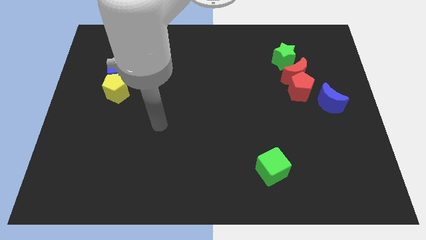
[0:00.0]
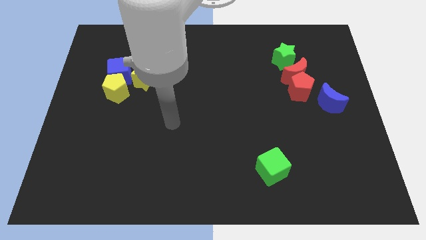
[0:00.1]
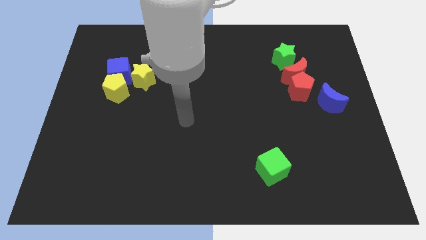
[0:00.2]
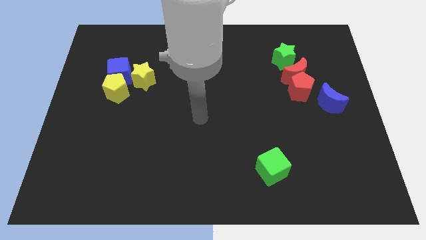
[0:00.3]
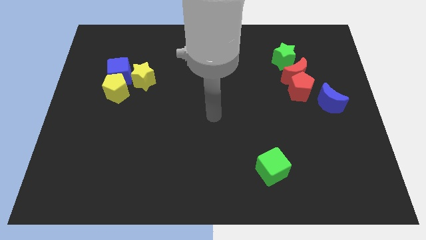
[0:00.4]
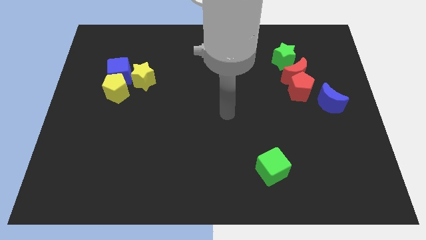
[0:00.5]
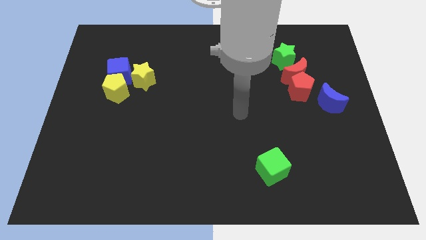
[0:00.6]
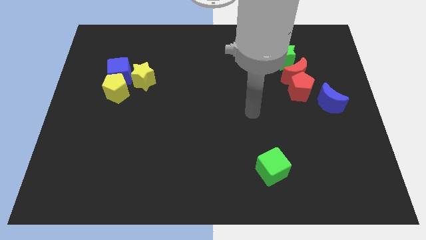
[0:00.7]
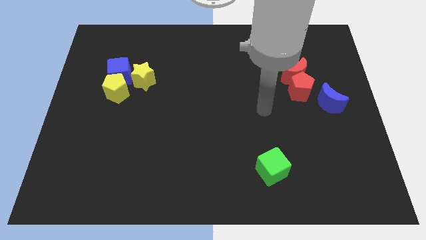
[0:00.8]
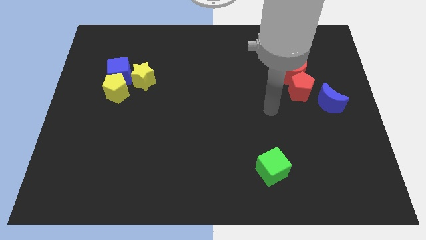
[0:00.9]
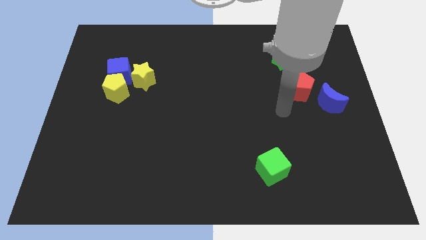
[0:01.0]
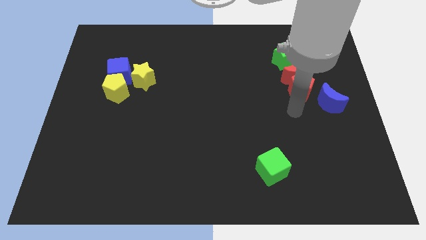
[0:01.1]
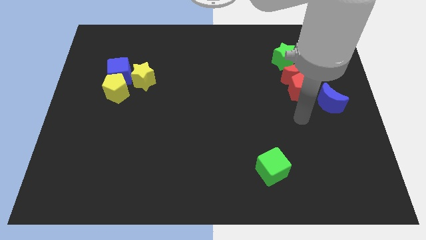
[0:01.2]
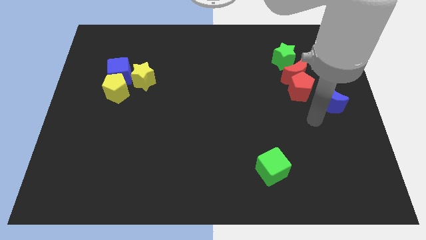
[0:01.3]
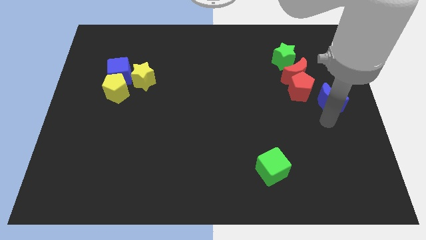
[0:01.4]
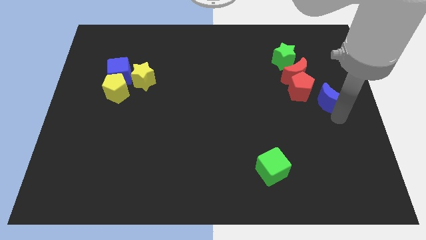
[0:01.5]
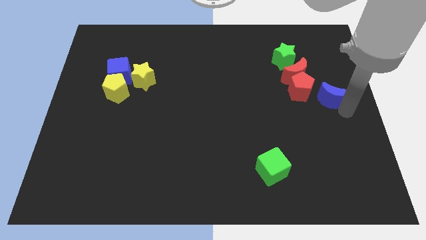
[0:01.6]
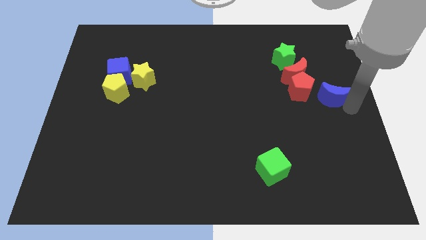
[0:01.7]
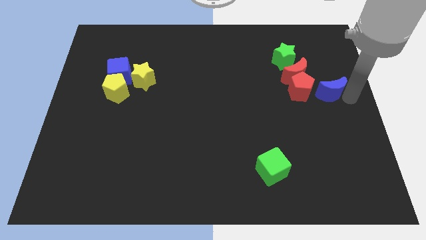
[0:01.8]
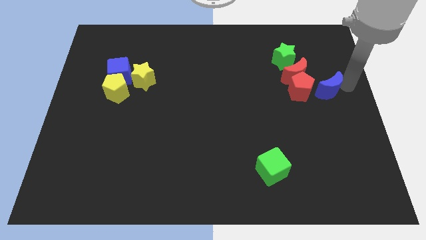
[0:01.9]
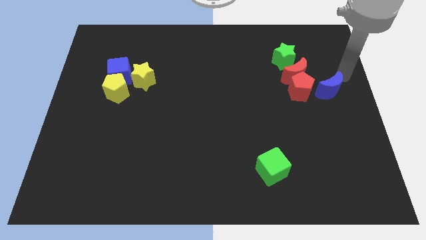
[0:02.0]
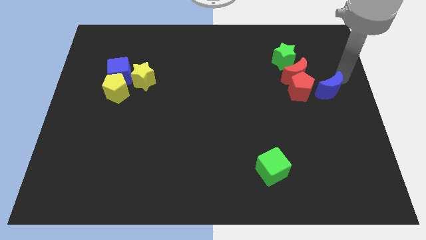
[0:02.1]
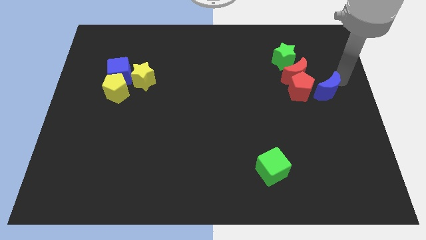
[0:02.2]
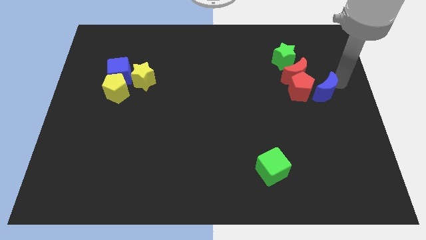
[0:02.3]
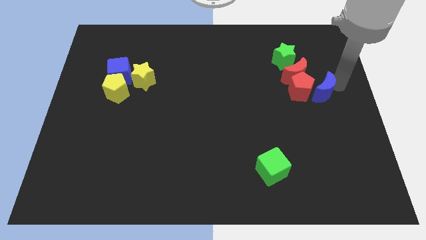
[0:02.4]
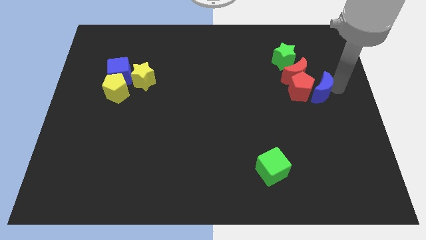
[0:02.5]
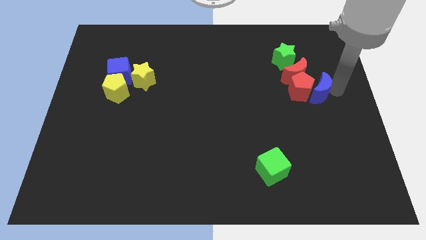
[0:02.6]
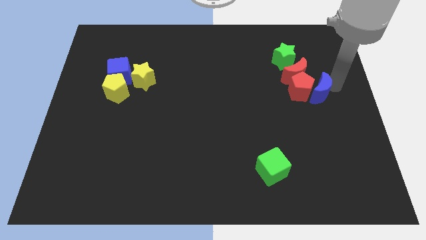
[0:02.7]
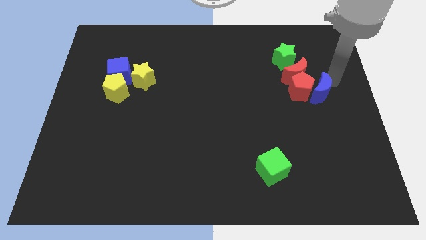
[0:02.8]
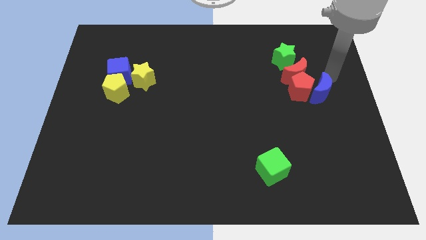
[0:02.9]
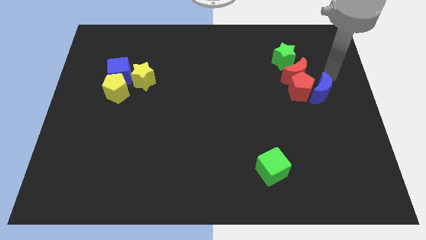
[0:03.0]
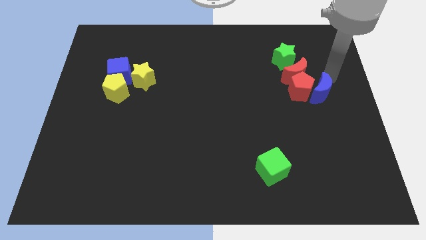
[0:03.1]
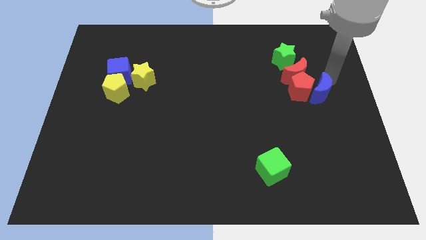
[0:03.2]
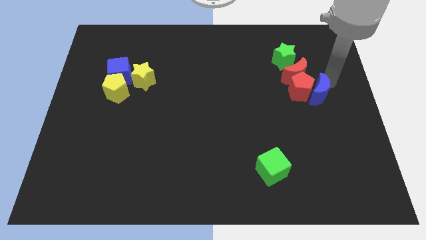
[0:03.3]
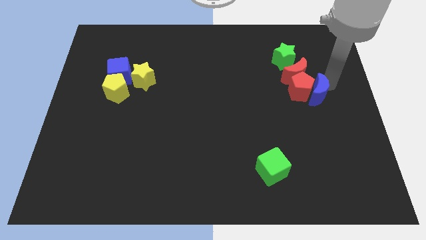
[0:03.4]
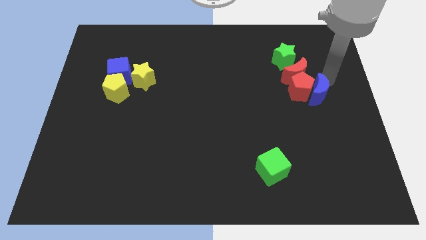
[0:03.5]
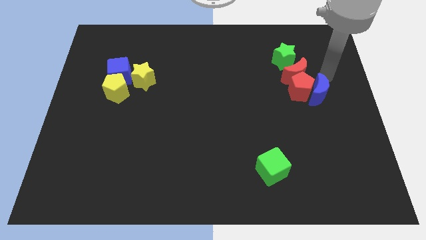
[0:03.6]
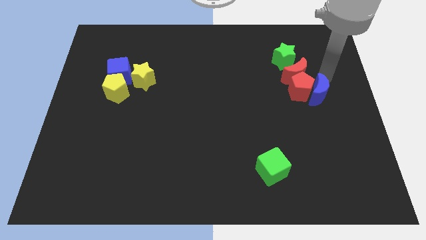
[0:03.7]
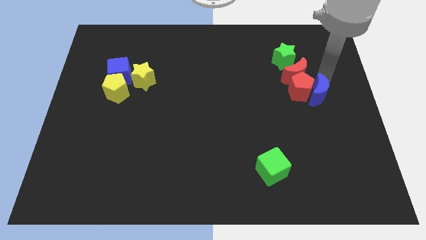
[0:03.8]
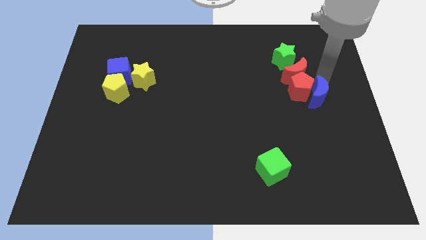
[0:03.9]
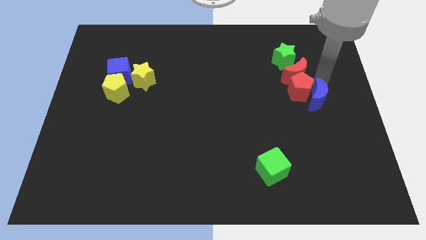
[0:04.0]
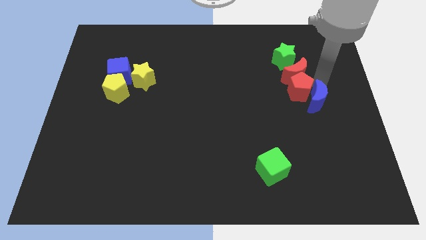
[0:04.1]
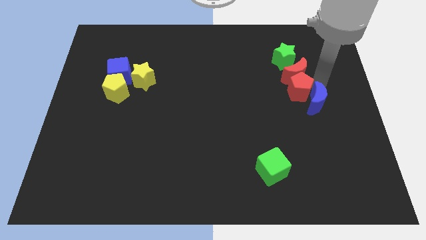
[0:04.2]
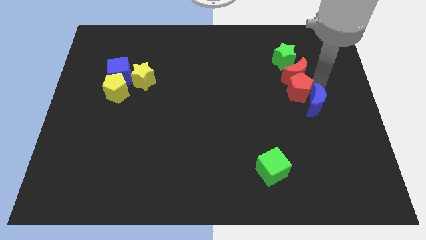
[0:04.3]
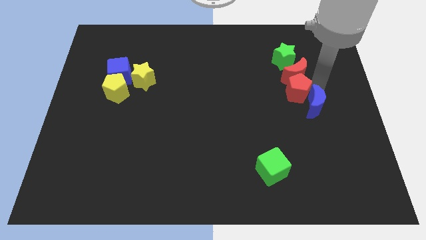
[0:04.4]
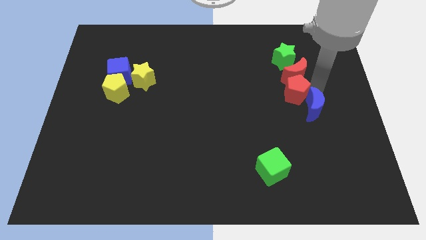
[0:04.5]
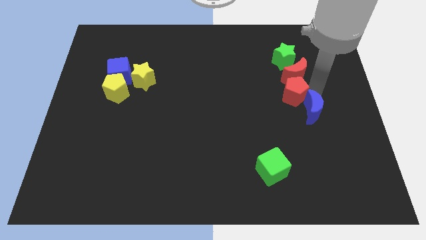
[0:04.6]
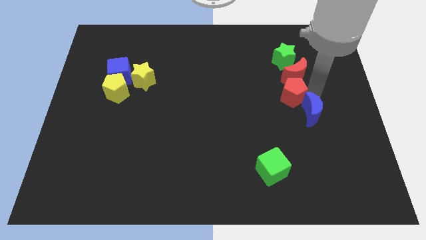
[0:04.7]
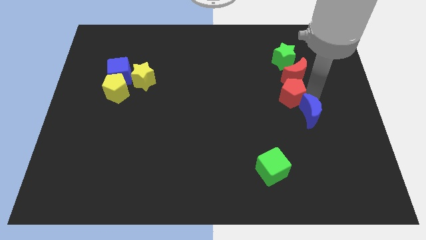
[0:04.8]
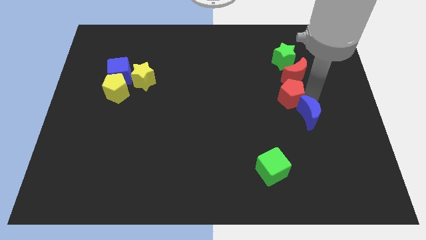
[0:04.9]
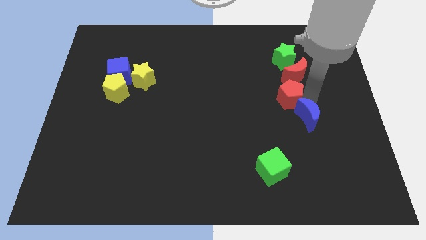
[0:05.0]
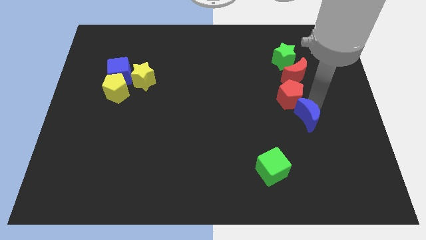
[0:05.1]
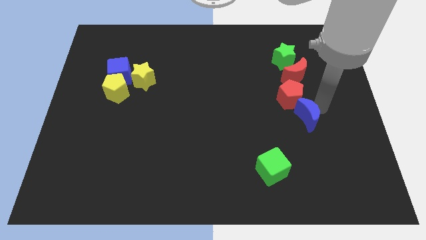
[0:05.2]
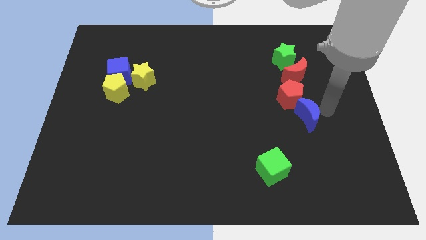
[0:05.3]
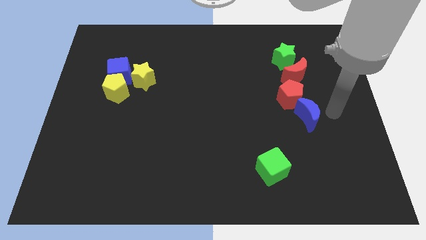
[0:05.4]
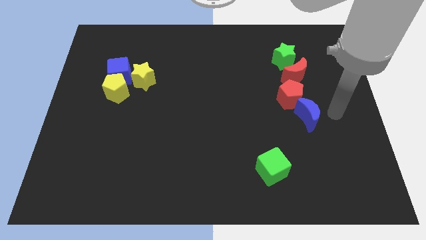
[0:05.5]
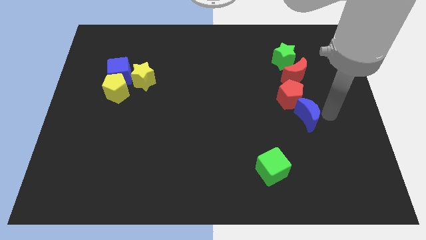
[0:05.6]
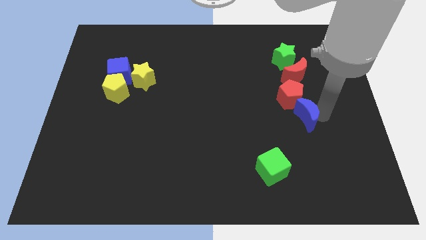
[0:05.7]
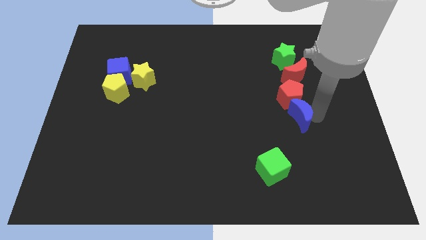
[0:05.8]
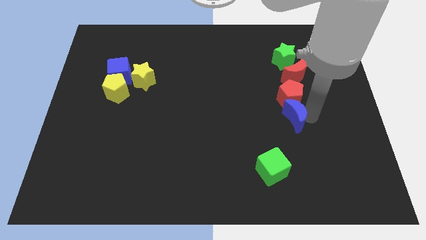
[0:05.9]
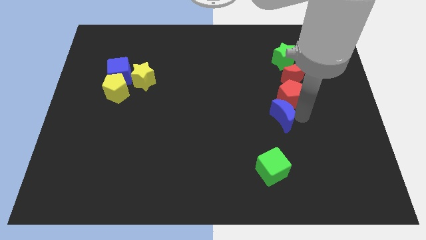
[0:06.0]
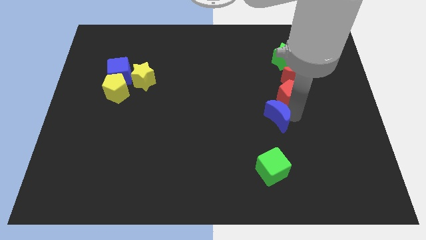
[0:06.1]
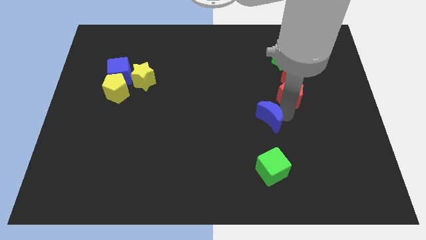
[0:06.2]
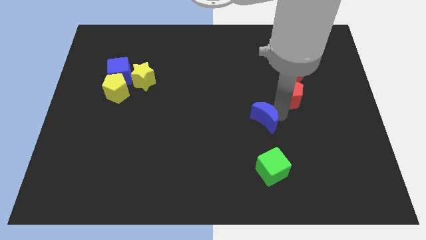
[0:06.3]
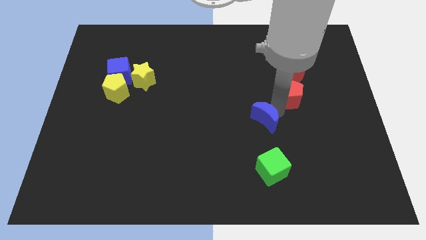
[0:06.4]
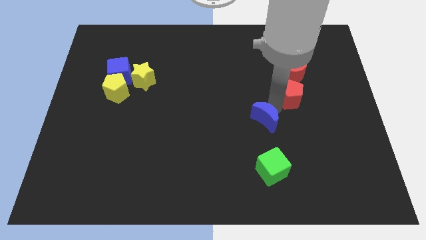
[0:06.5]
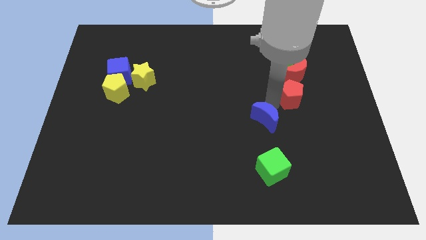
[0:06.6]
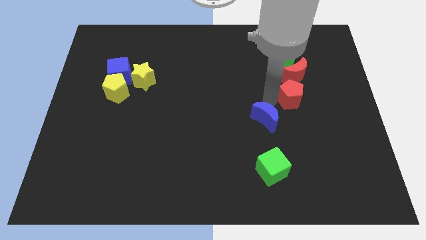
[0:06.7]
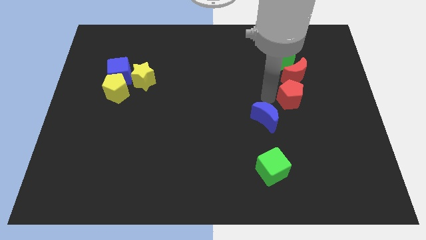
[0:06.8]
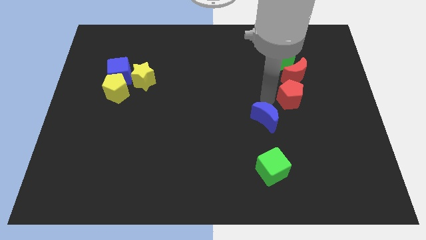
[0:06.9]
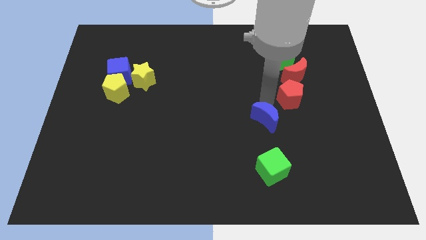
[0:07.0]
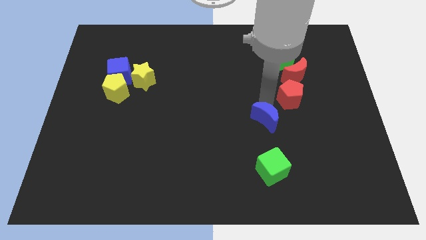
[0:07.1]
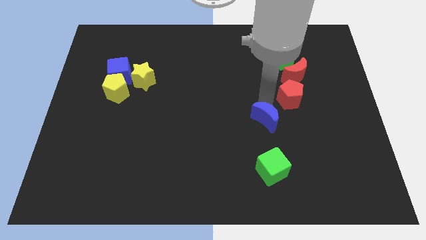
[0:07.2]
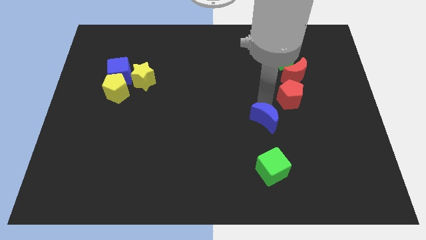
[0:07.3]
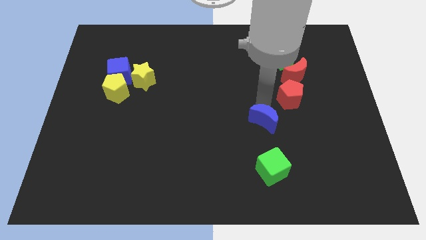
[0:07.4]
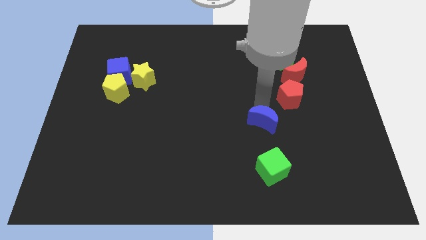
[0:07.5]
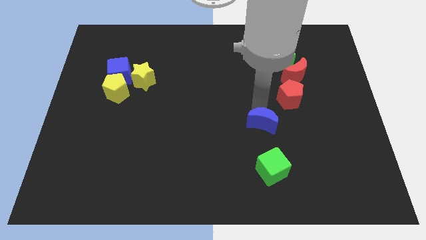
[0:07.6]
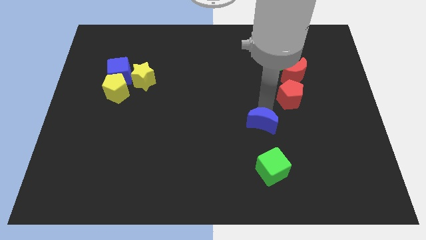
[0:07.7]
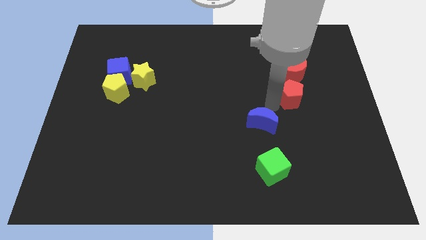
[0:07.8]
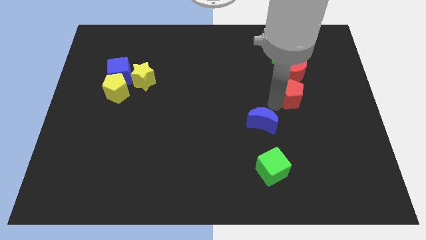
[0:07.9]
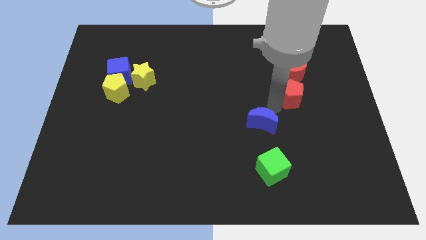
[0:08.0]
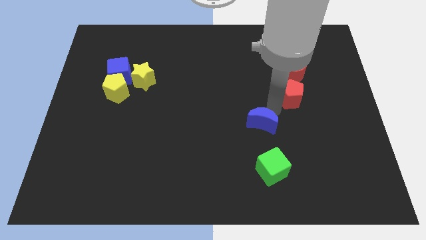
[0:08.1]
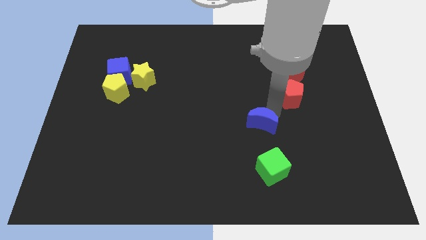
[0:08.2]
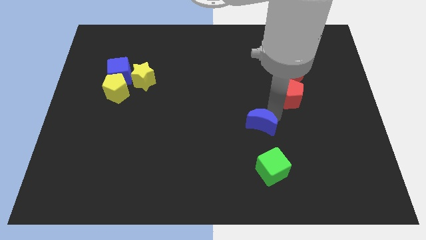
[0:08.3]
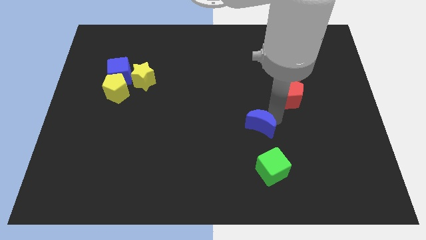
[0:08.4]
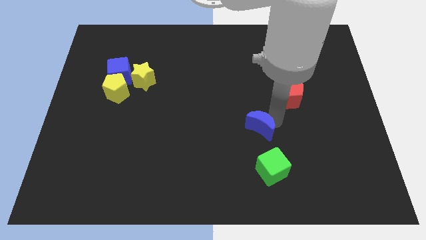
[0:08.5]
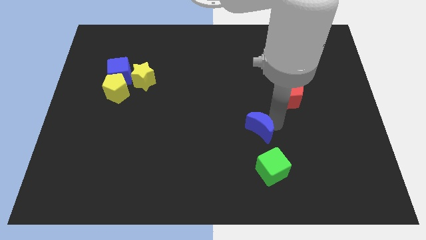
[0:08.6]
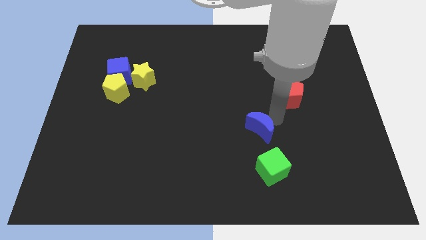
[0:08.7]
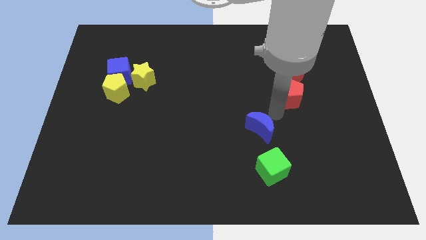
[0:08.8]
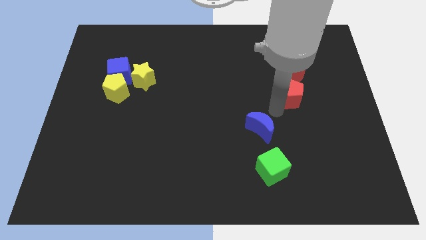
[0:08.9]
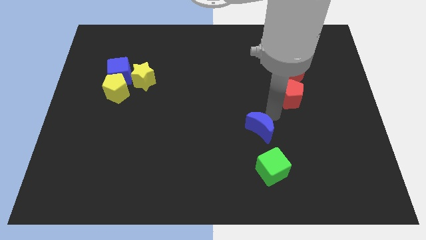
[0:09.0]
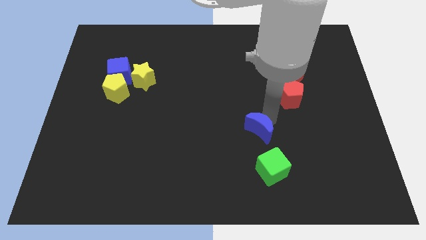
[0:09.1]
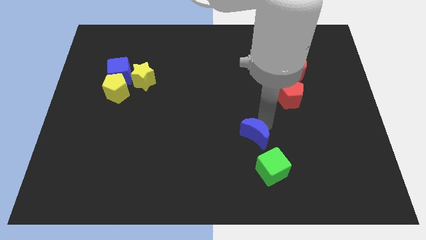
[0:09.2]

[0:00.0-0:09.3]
put the blue moon diagonally up and to the left of the green cube
